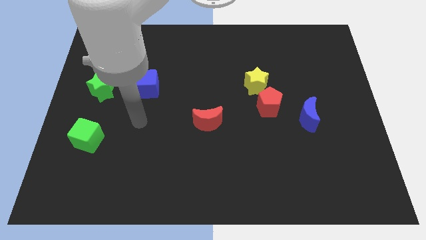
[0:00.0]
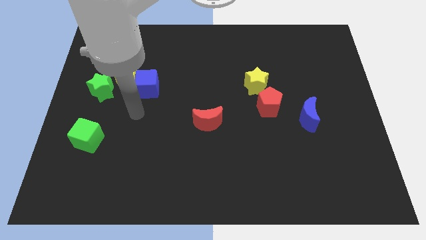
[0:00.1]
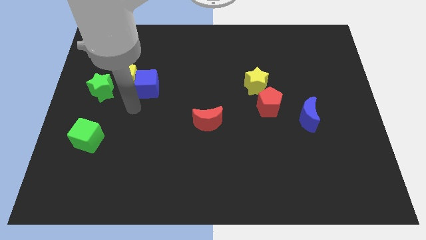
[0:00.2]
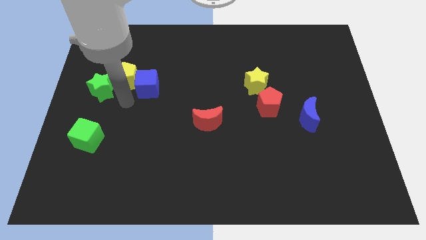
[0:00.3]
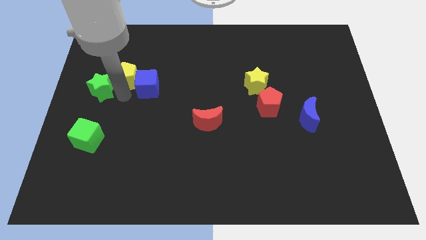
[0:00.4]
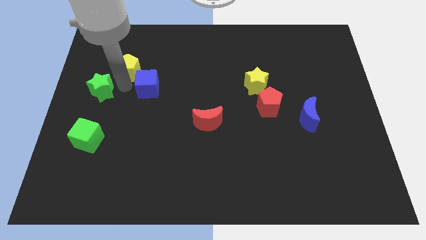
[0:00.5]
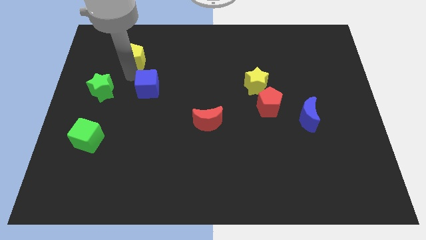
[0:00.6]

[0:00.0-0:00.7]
move the blue cube away from the yellow pentagon

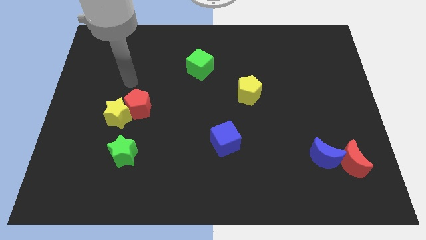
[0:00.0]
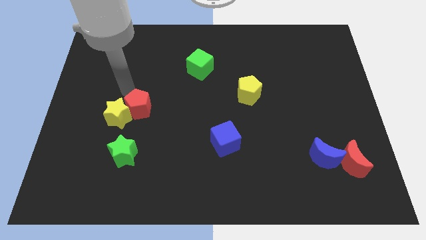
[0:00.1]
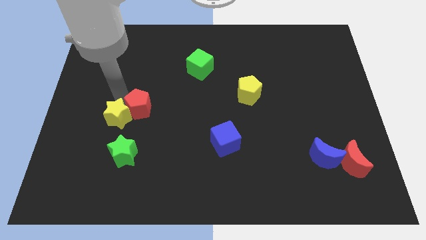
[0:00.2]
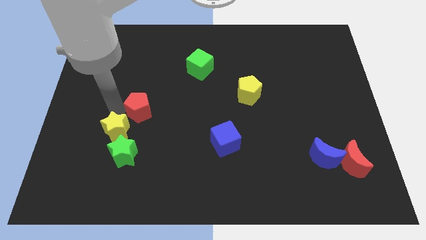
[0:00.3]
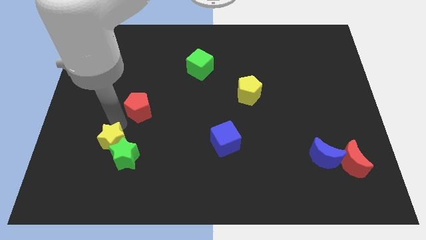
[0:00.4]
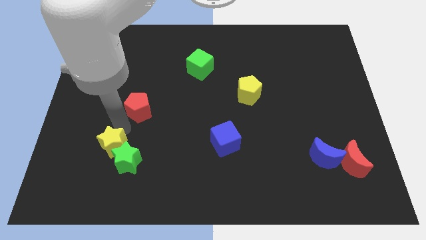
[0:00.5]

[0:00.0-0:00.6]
move the red pentagon away from the yellow star

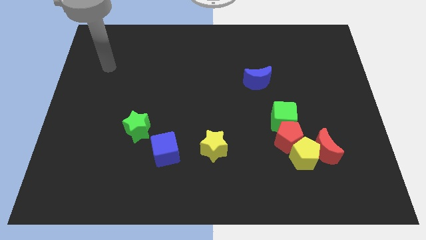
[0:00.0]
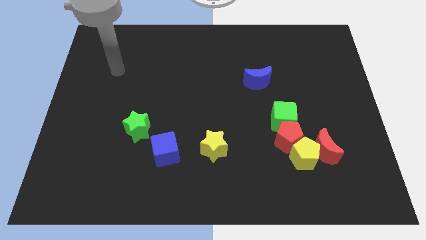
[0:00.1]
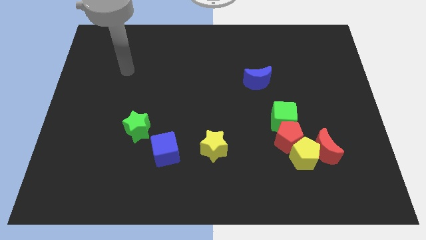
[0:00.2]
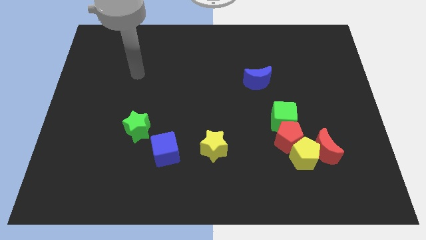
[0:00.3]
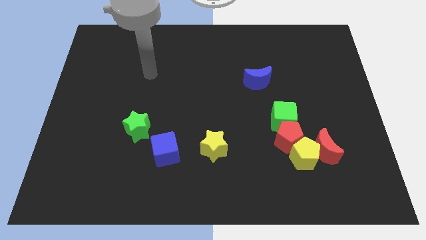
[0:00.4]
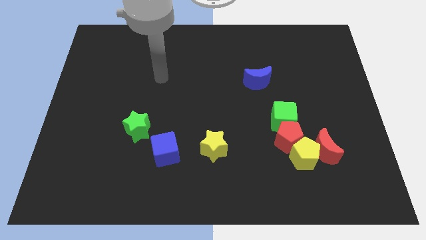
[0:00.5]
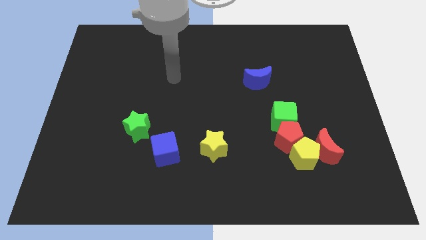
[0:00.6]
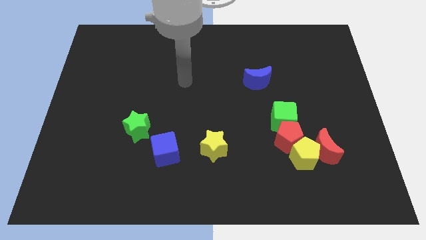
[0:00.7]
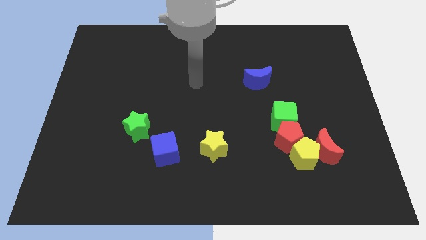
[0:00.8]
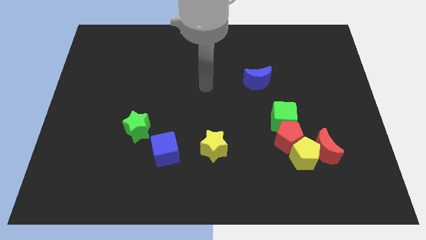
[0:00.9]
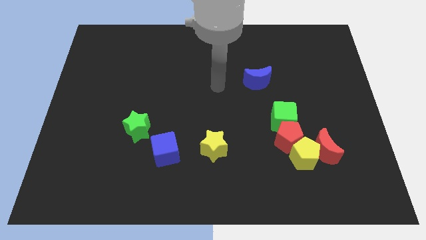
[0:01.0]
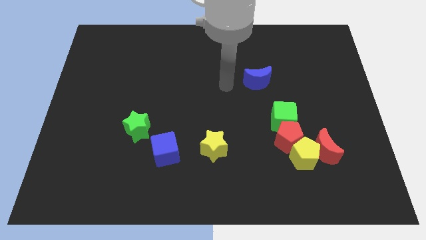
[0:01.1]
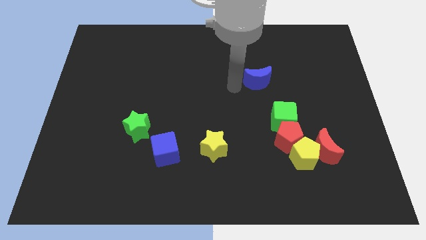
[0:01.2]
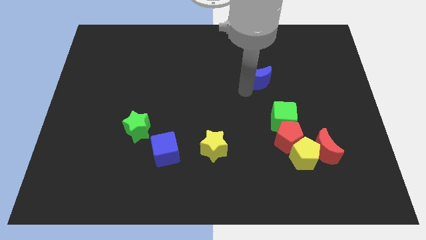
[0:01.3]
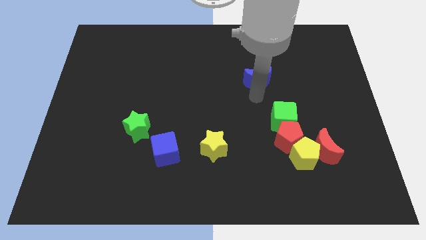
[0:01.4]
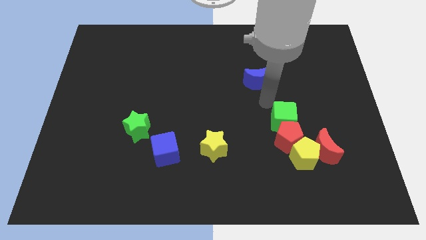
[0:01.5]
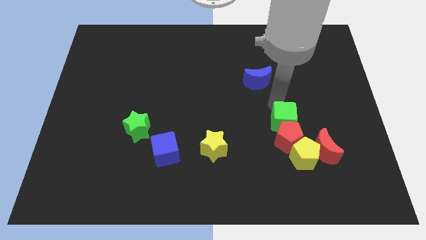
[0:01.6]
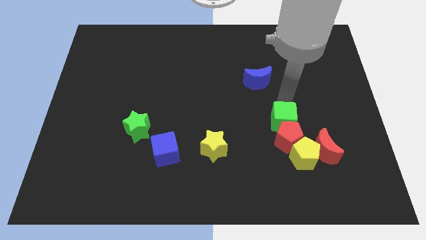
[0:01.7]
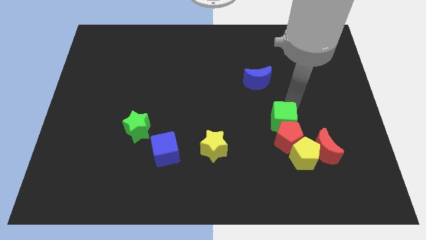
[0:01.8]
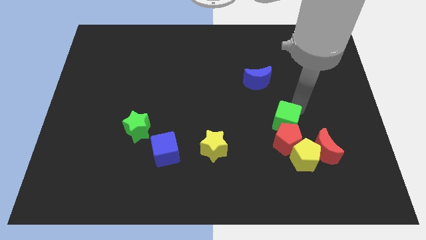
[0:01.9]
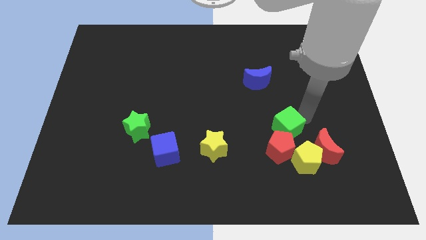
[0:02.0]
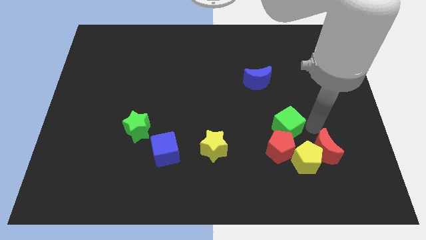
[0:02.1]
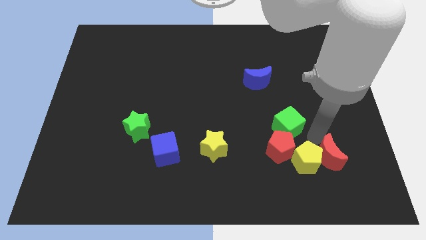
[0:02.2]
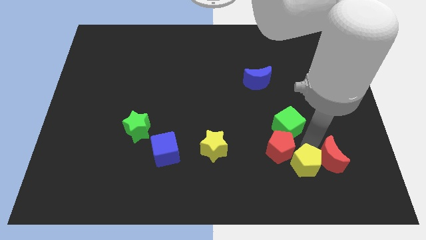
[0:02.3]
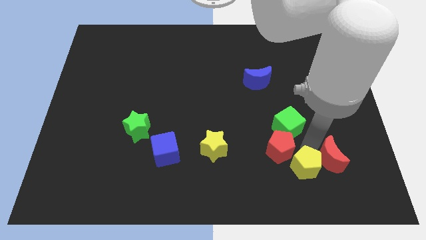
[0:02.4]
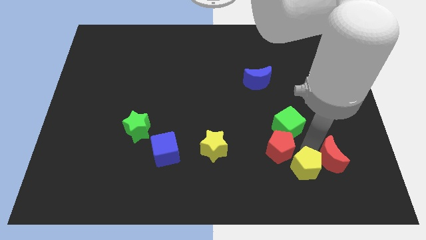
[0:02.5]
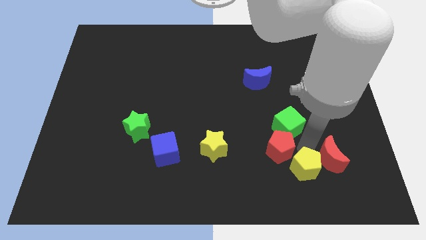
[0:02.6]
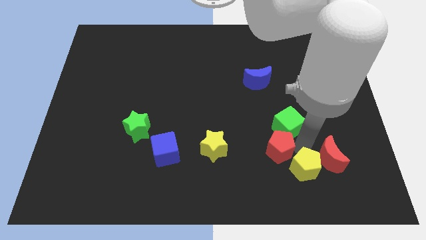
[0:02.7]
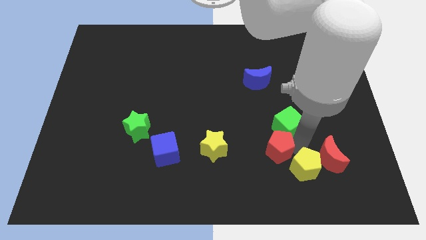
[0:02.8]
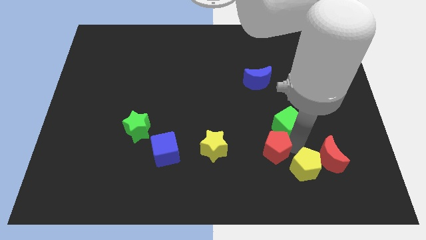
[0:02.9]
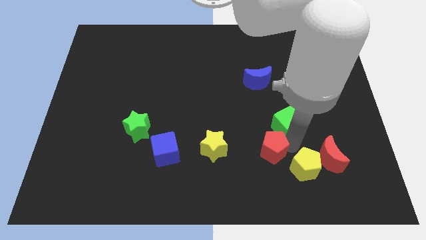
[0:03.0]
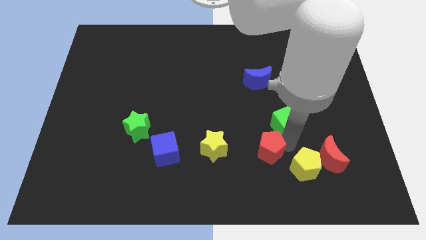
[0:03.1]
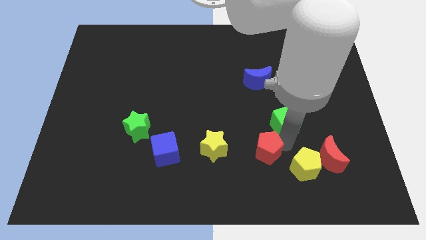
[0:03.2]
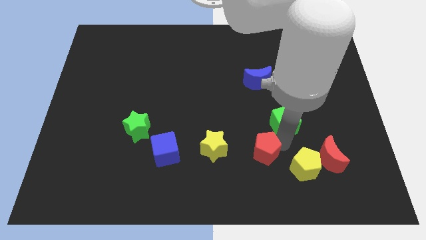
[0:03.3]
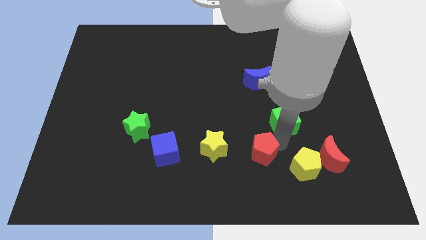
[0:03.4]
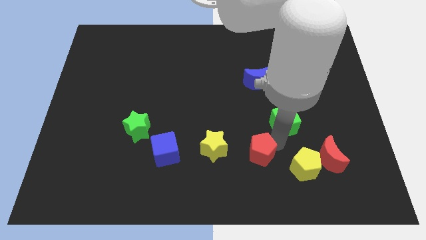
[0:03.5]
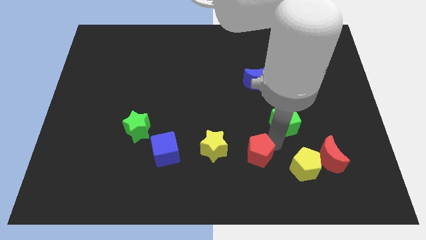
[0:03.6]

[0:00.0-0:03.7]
move the red pentagon away from the clump

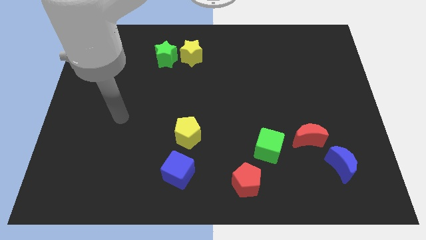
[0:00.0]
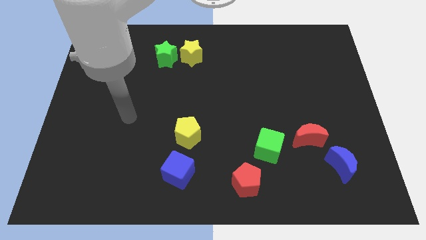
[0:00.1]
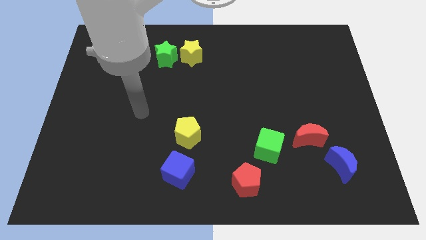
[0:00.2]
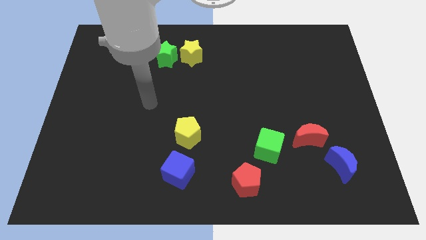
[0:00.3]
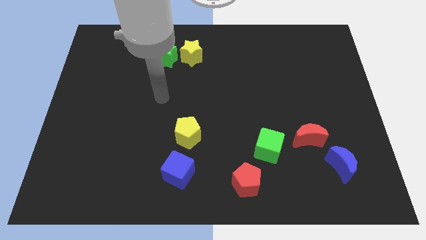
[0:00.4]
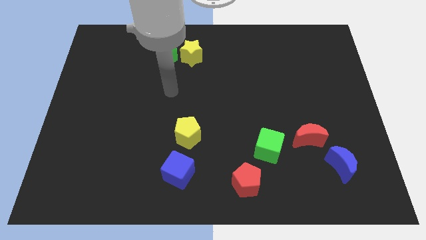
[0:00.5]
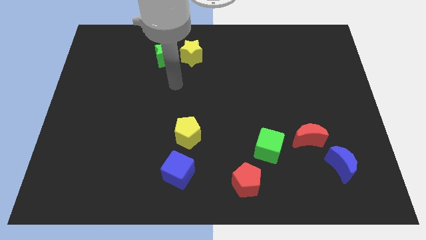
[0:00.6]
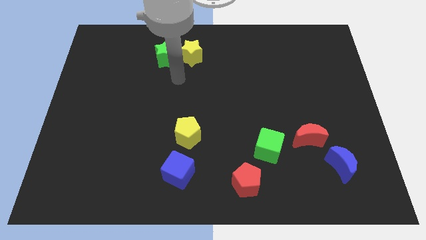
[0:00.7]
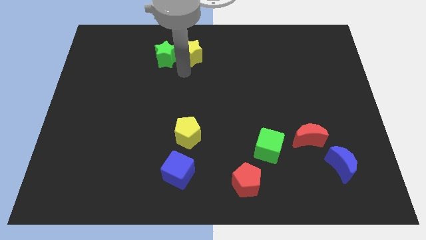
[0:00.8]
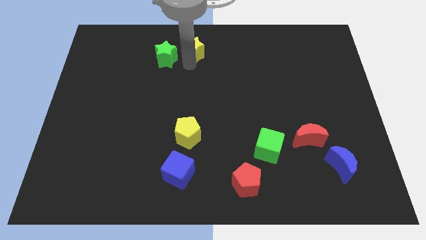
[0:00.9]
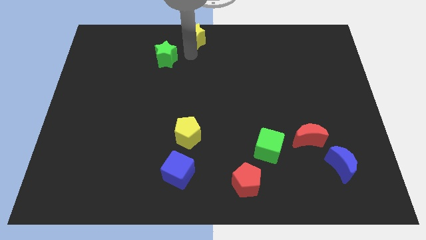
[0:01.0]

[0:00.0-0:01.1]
pull the green star apart from the yellow star

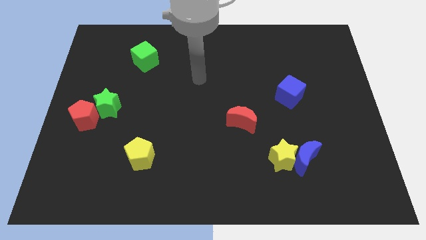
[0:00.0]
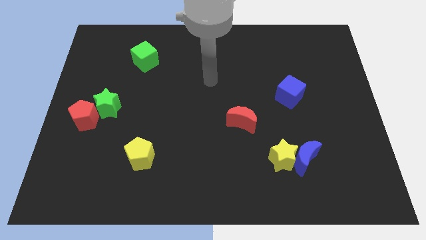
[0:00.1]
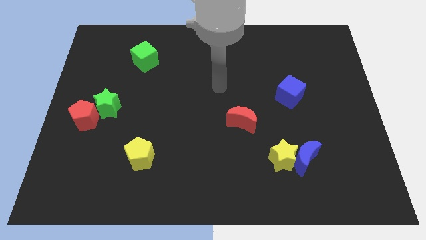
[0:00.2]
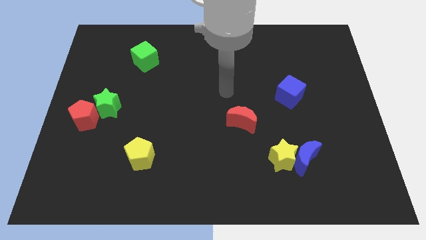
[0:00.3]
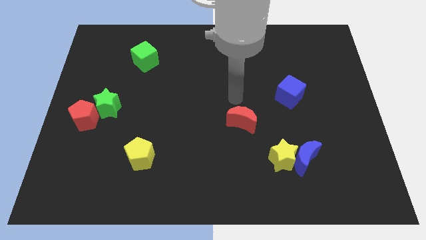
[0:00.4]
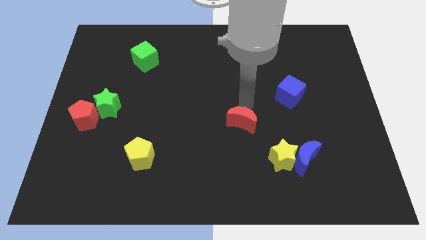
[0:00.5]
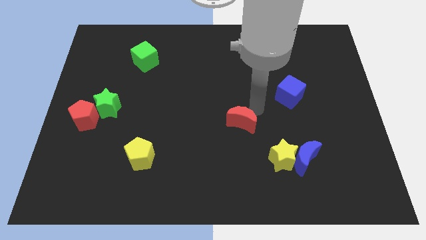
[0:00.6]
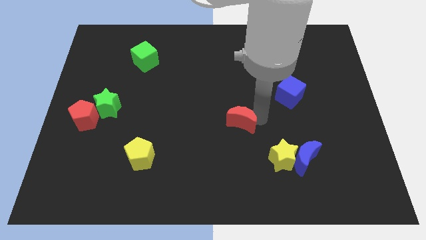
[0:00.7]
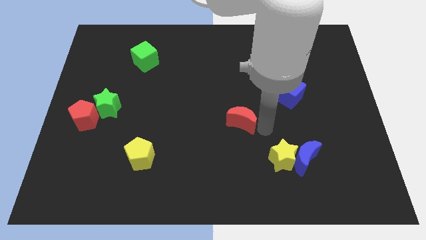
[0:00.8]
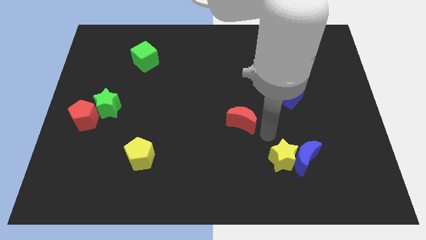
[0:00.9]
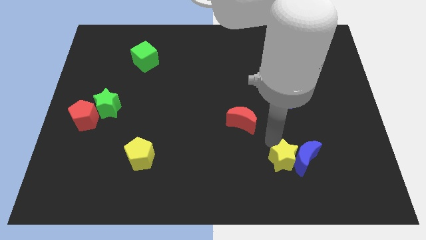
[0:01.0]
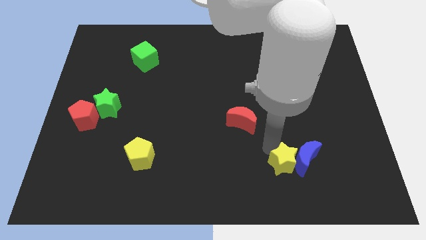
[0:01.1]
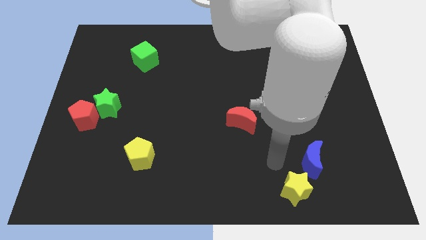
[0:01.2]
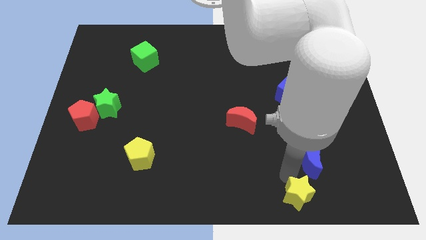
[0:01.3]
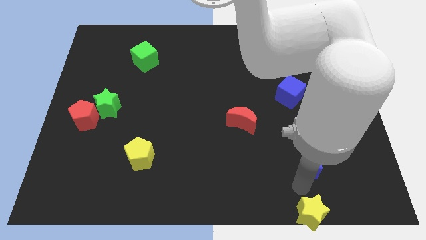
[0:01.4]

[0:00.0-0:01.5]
move the blue moon away from the yellow star

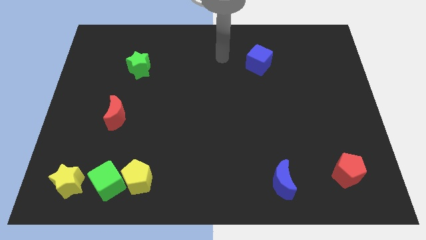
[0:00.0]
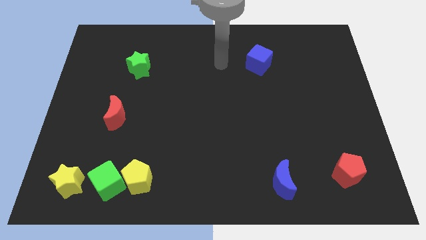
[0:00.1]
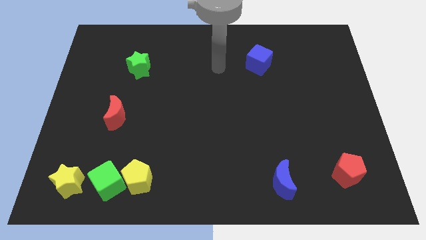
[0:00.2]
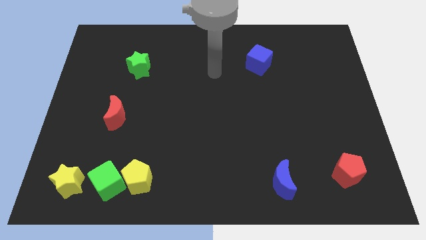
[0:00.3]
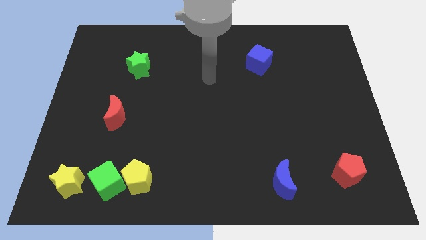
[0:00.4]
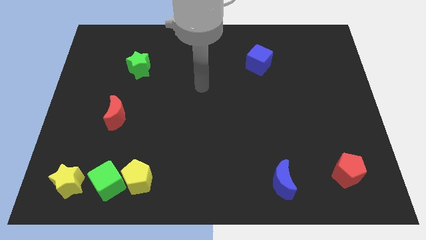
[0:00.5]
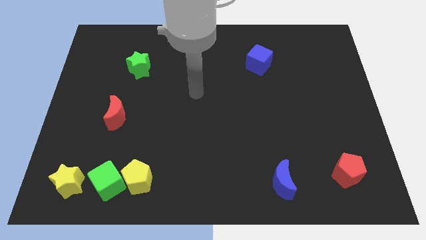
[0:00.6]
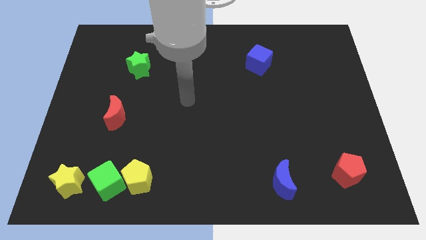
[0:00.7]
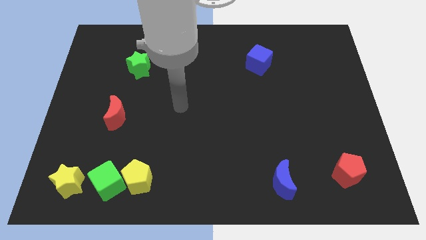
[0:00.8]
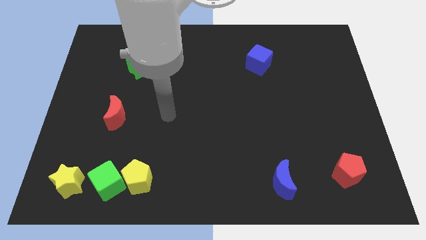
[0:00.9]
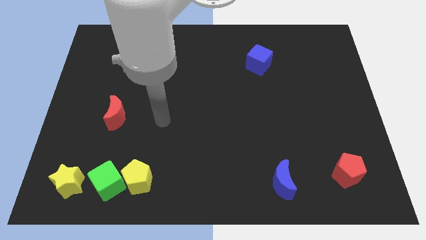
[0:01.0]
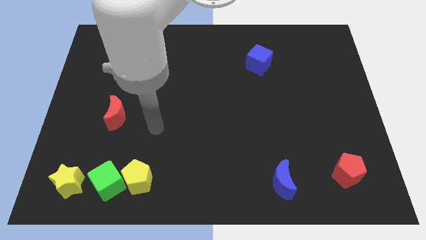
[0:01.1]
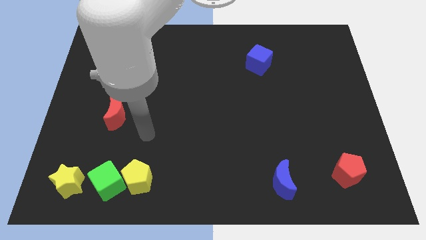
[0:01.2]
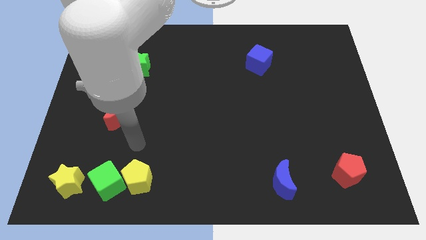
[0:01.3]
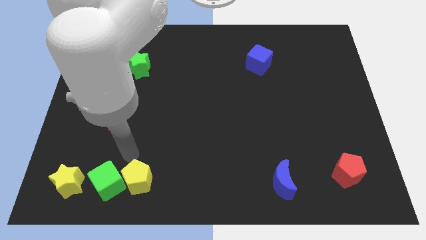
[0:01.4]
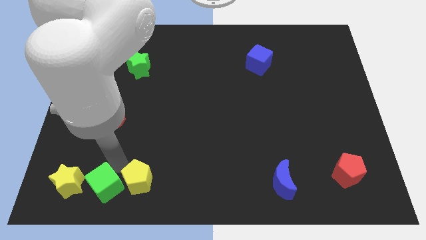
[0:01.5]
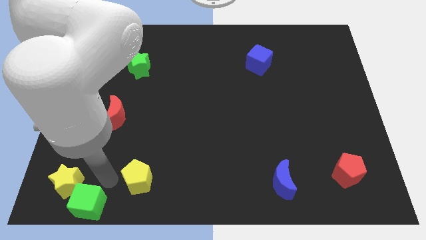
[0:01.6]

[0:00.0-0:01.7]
move the yellow pentagon away from the green cube

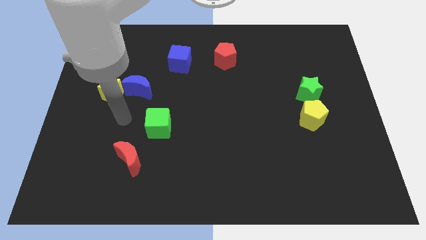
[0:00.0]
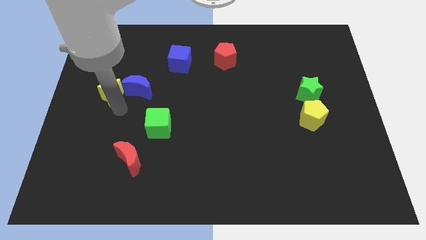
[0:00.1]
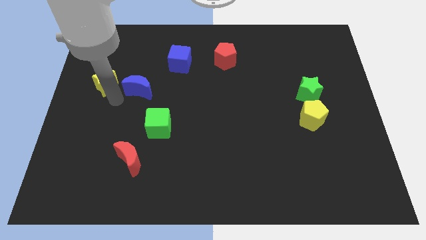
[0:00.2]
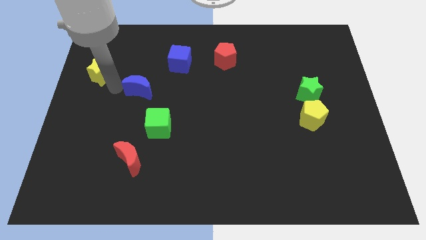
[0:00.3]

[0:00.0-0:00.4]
pull the blue moon apart from the yellow star
